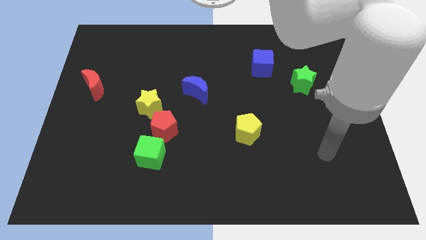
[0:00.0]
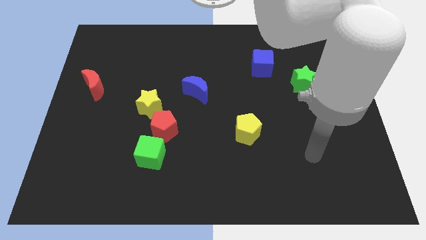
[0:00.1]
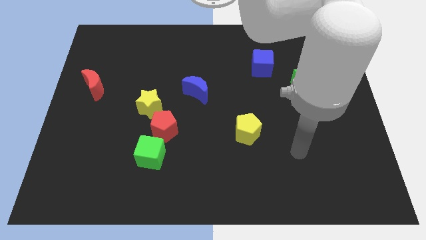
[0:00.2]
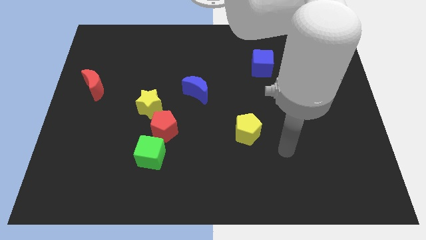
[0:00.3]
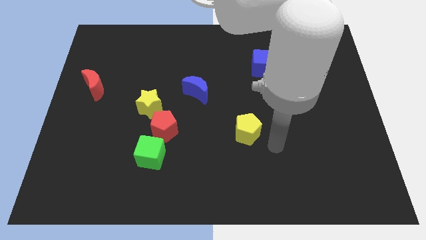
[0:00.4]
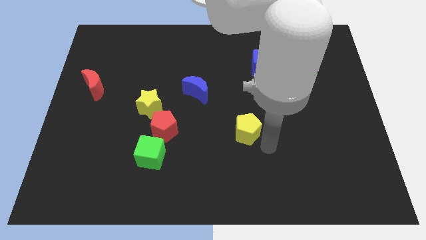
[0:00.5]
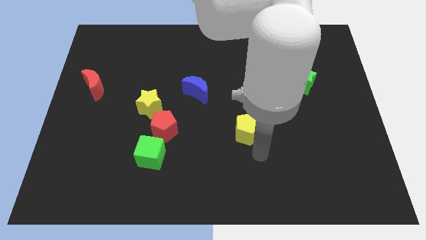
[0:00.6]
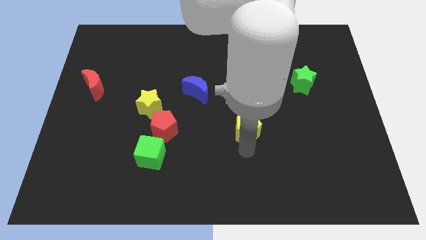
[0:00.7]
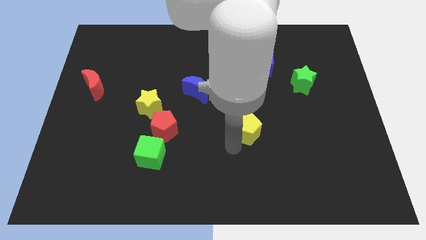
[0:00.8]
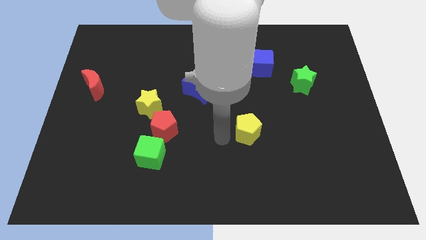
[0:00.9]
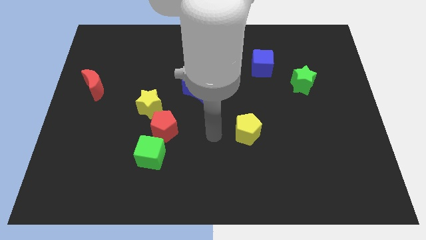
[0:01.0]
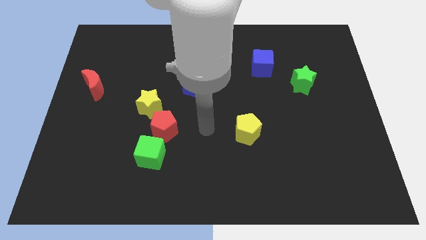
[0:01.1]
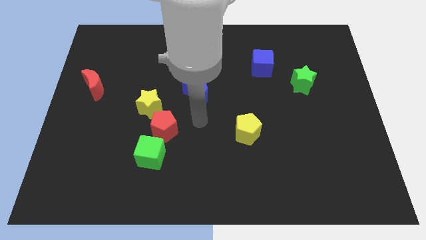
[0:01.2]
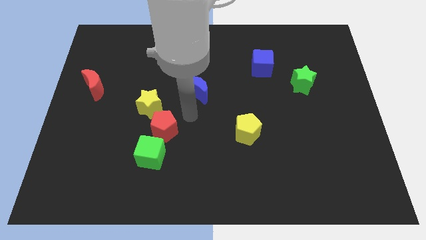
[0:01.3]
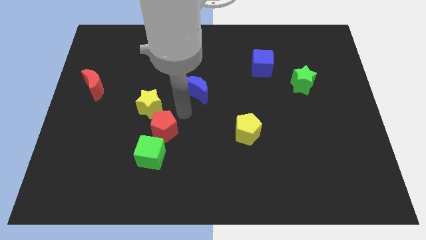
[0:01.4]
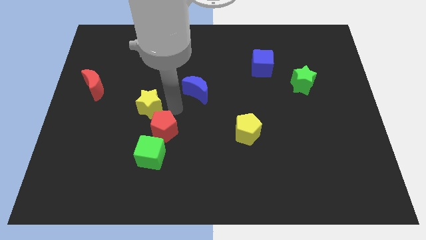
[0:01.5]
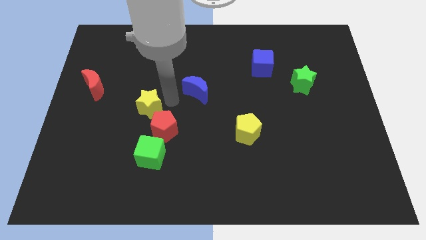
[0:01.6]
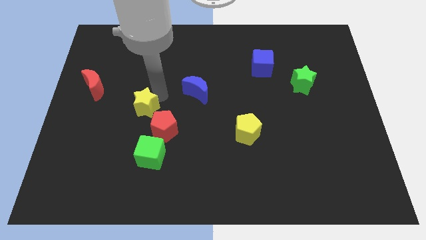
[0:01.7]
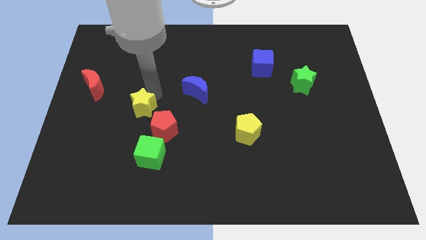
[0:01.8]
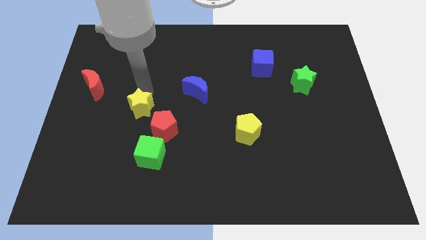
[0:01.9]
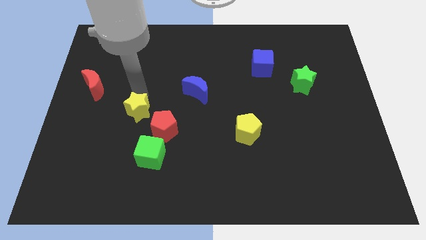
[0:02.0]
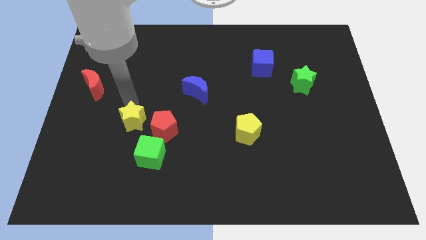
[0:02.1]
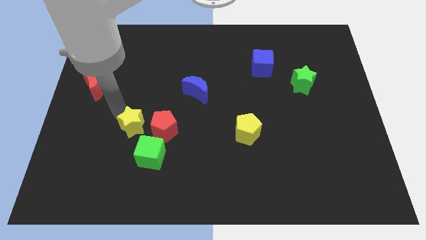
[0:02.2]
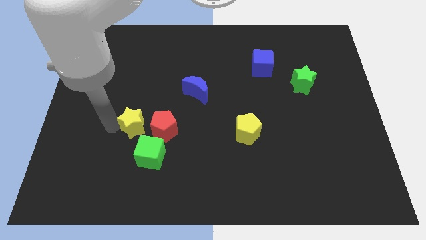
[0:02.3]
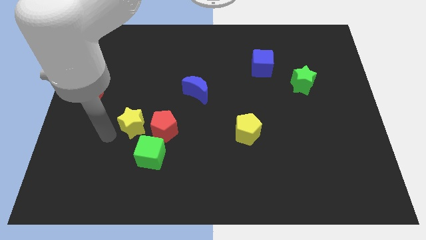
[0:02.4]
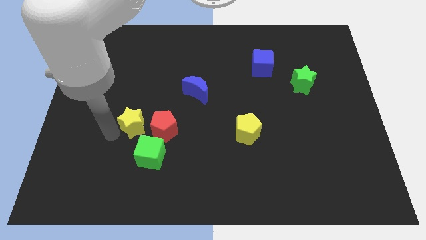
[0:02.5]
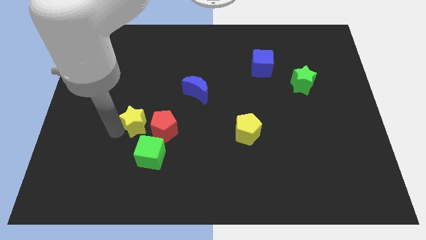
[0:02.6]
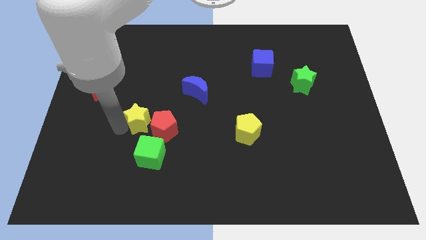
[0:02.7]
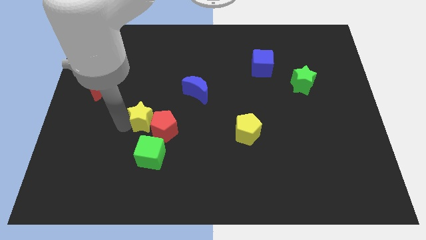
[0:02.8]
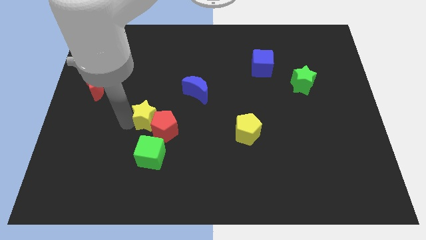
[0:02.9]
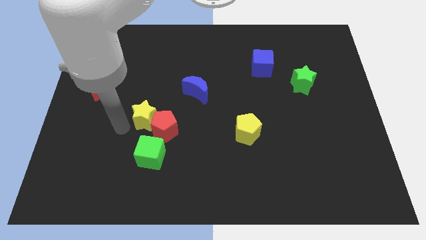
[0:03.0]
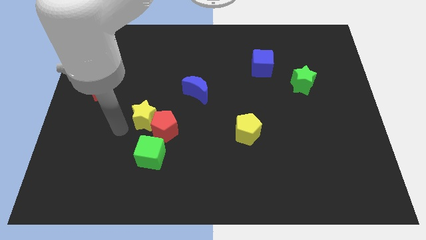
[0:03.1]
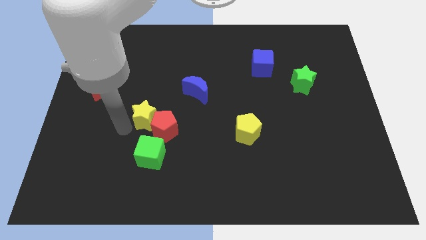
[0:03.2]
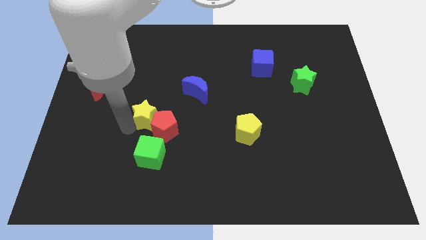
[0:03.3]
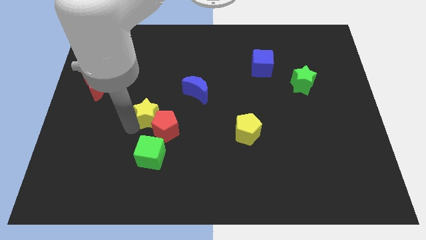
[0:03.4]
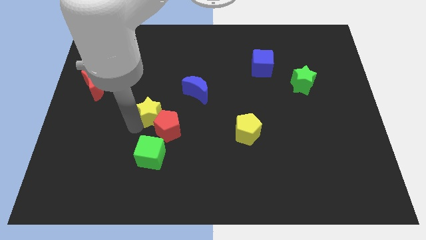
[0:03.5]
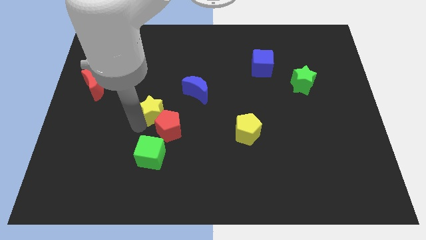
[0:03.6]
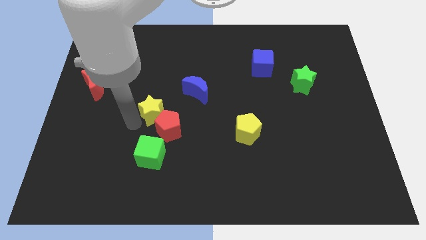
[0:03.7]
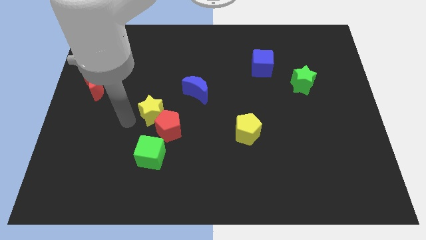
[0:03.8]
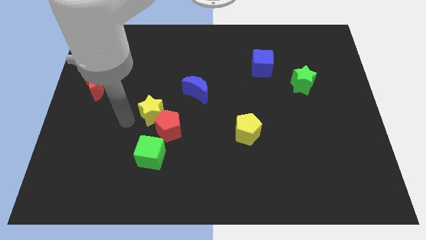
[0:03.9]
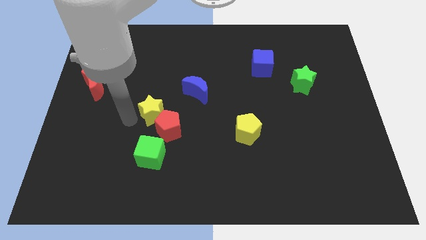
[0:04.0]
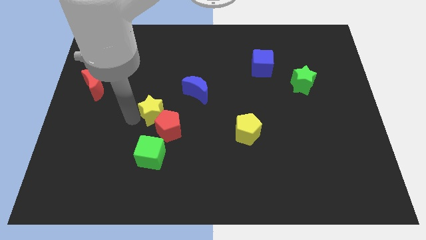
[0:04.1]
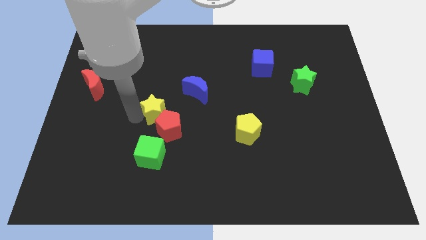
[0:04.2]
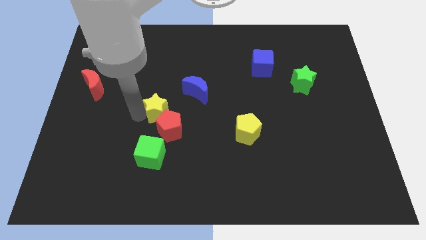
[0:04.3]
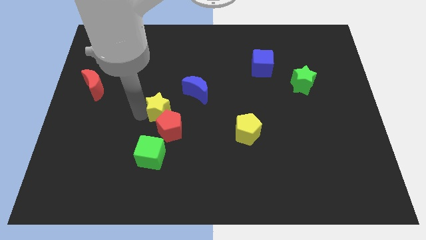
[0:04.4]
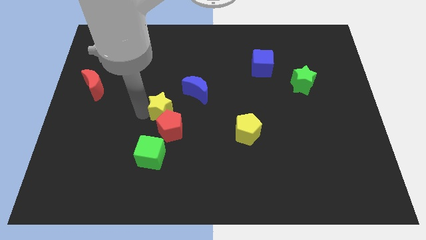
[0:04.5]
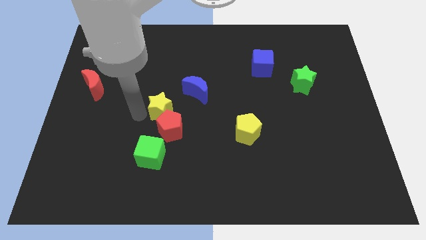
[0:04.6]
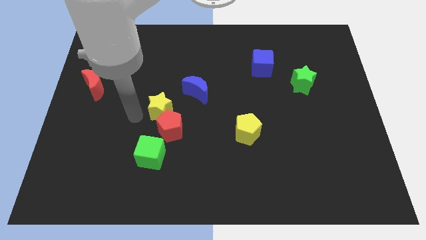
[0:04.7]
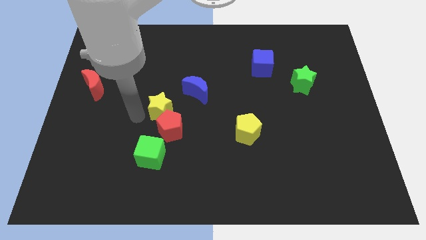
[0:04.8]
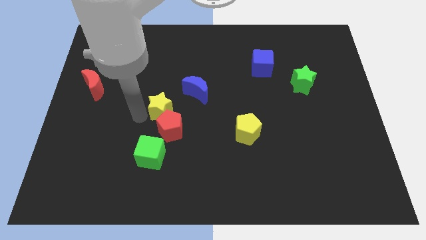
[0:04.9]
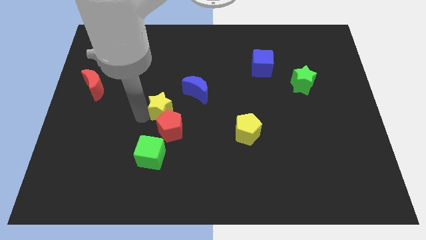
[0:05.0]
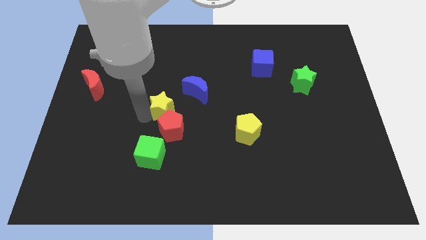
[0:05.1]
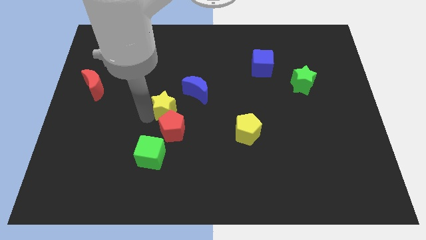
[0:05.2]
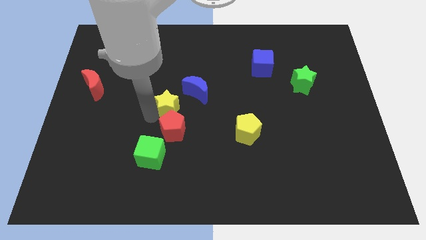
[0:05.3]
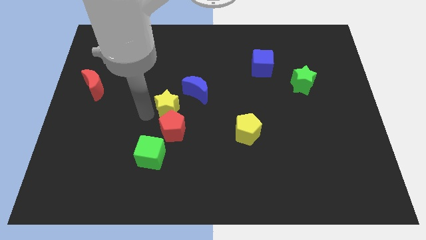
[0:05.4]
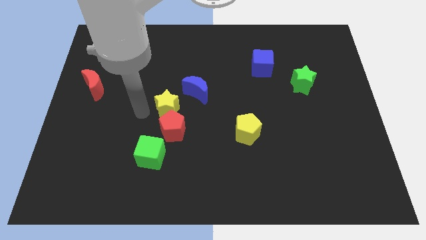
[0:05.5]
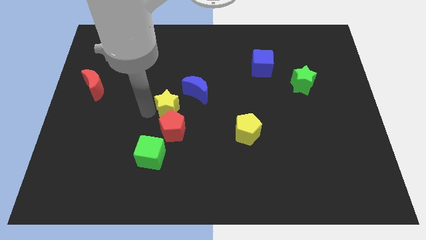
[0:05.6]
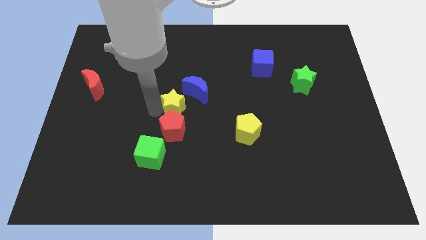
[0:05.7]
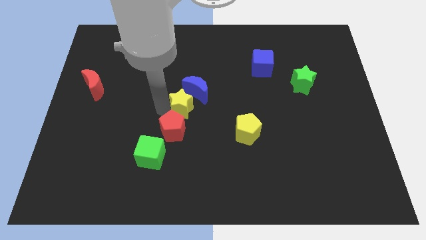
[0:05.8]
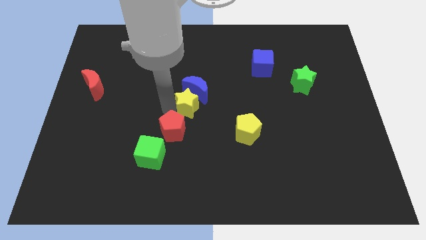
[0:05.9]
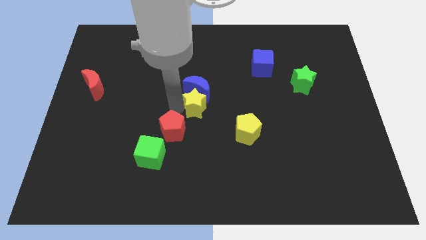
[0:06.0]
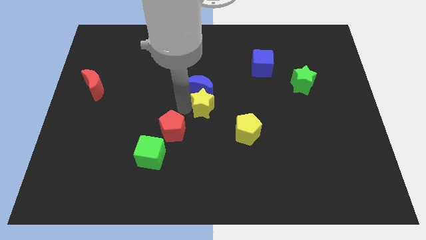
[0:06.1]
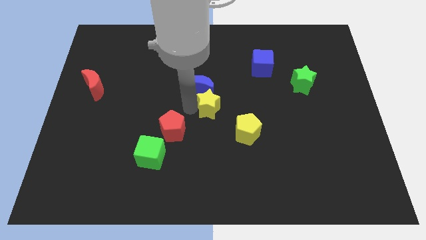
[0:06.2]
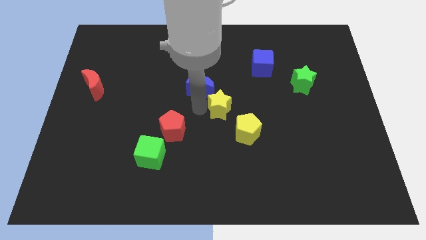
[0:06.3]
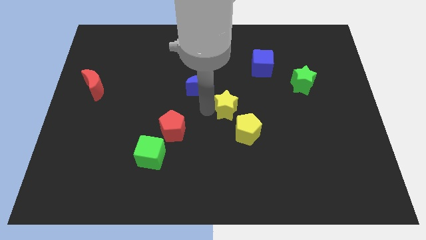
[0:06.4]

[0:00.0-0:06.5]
push the yellow star above the yellow pentagon

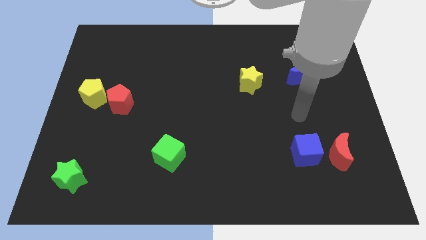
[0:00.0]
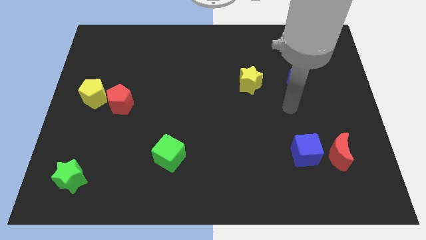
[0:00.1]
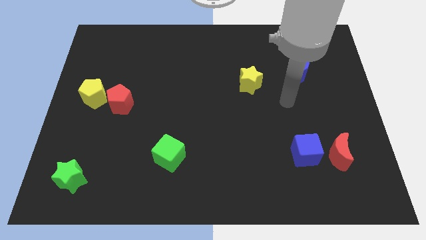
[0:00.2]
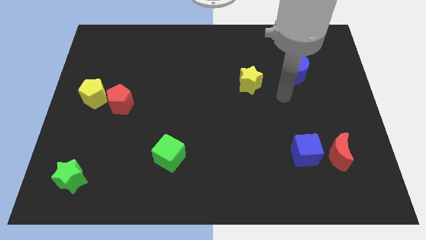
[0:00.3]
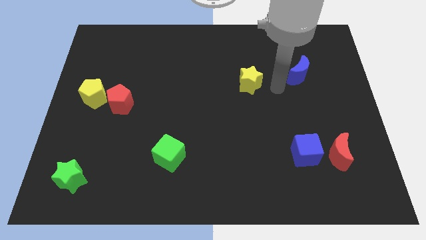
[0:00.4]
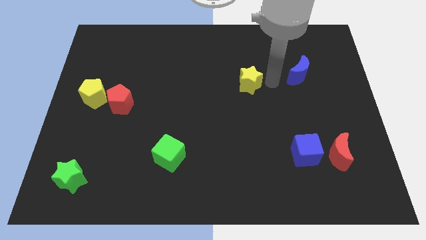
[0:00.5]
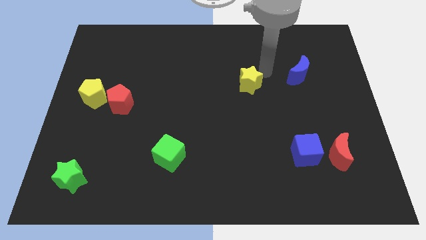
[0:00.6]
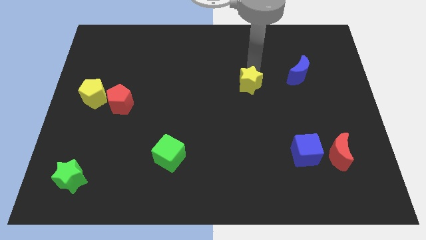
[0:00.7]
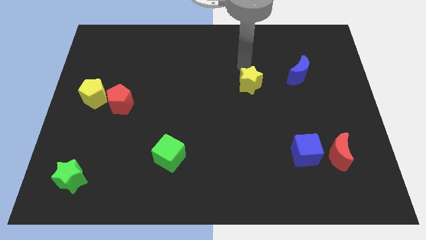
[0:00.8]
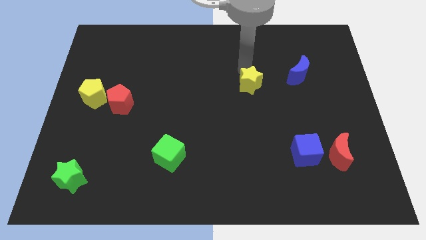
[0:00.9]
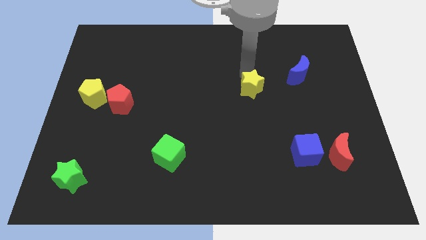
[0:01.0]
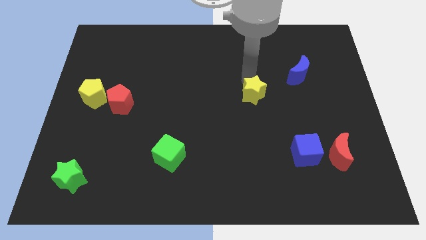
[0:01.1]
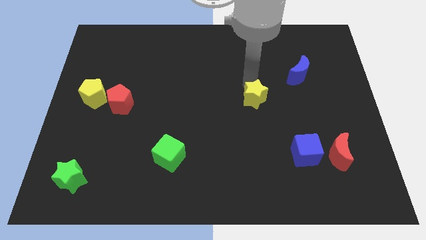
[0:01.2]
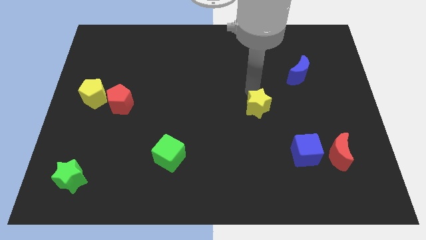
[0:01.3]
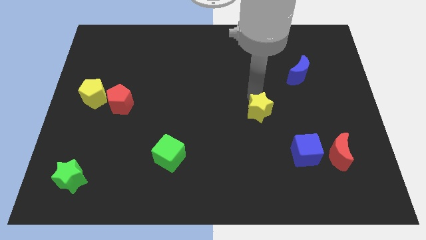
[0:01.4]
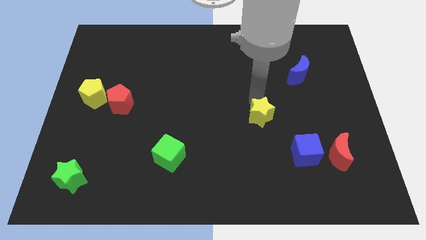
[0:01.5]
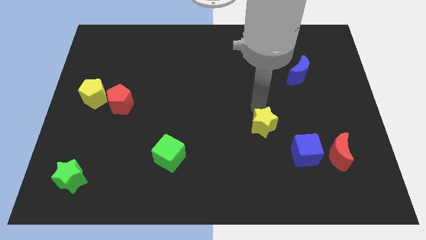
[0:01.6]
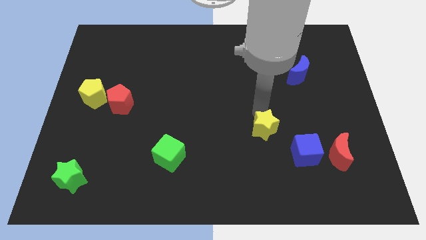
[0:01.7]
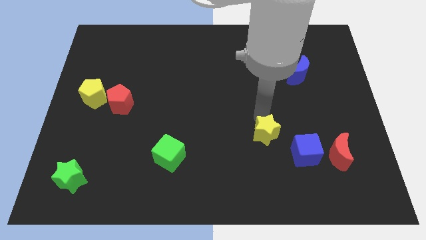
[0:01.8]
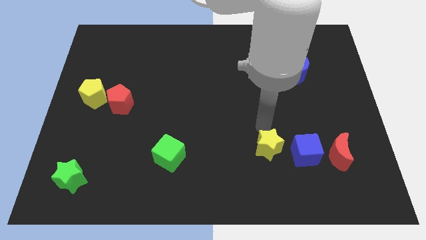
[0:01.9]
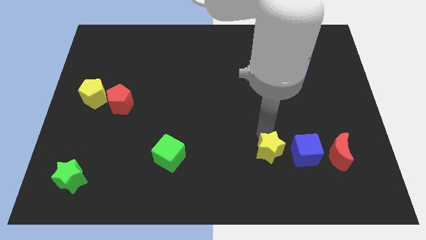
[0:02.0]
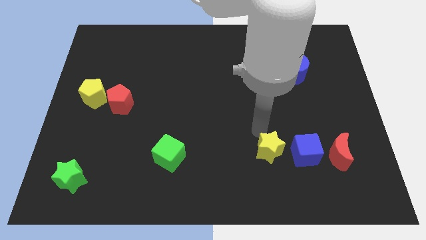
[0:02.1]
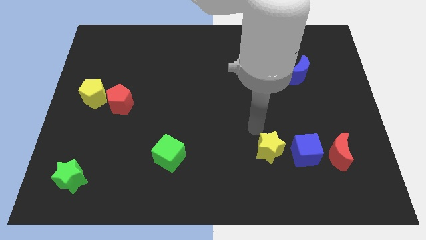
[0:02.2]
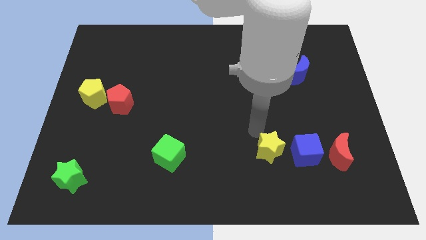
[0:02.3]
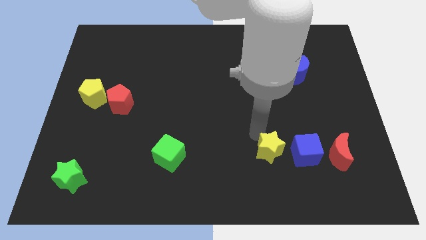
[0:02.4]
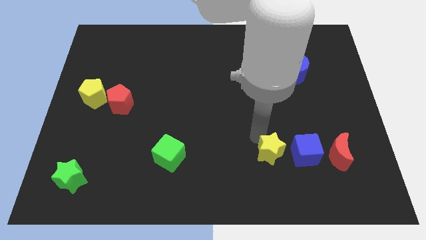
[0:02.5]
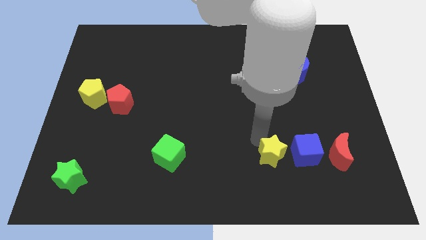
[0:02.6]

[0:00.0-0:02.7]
put the yellow star diagonally down and to the left of the blue cube
